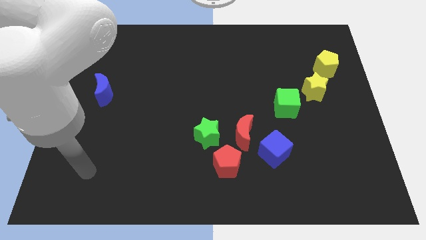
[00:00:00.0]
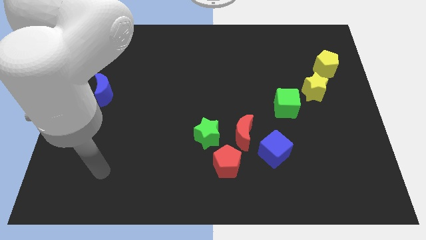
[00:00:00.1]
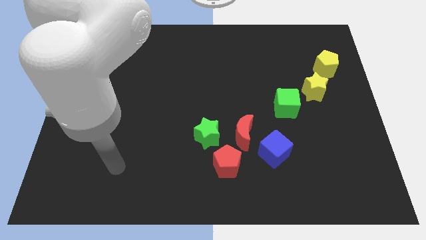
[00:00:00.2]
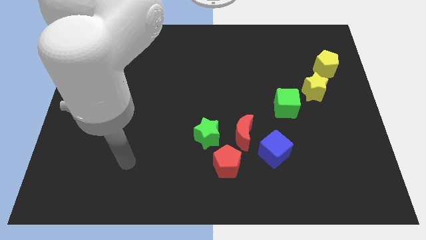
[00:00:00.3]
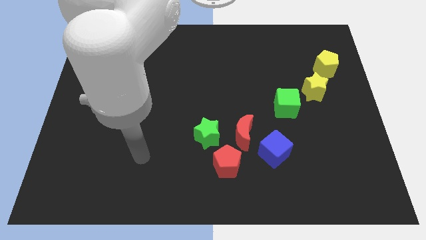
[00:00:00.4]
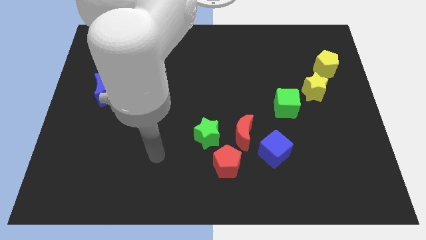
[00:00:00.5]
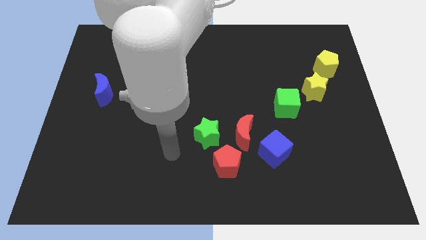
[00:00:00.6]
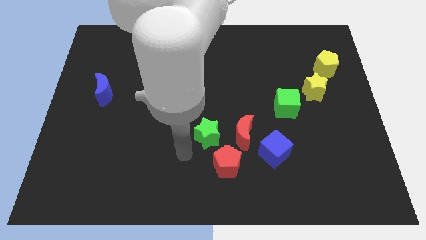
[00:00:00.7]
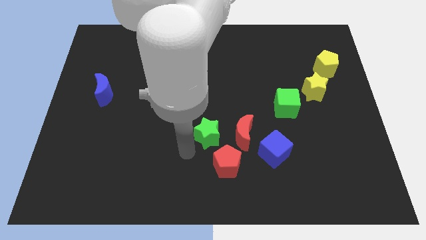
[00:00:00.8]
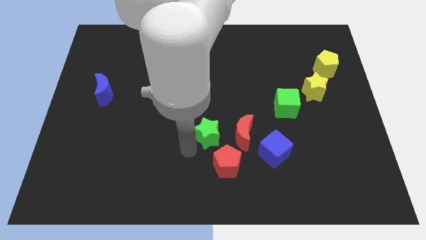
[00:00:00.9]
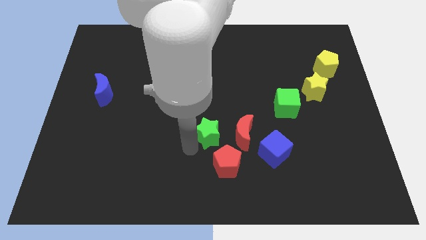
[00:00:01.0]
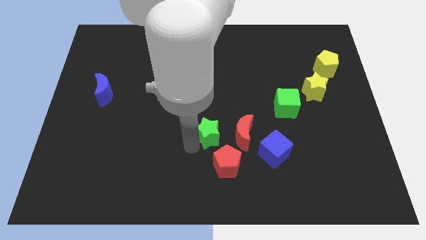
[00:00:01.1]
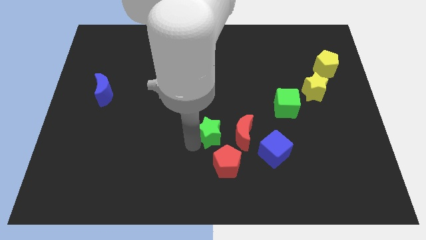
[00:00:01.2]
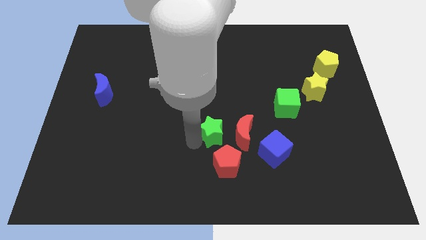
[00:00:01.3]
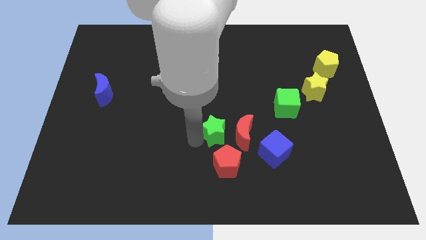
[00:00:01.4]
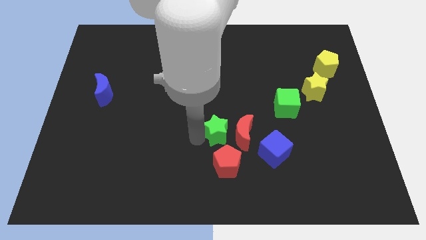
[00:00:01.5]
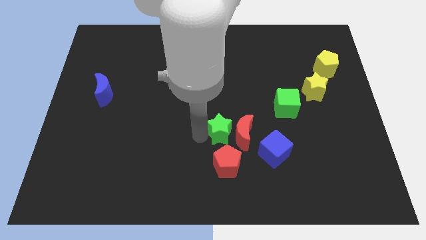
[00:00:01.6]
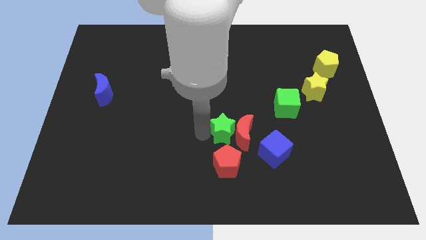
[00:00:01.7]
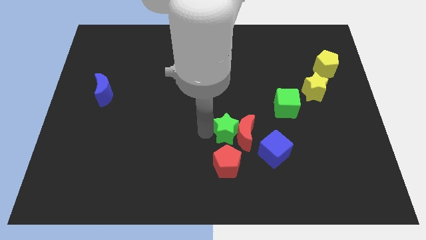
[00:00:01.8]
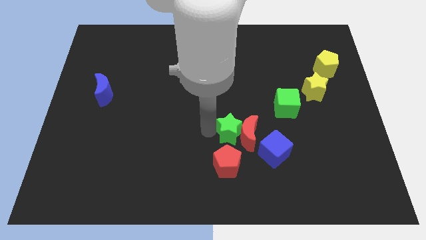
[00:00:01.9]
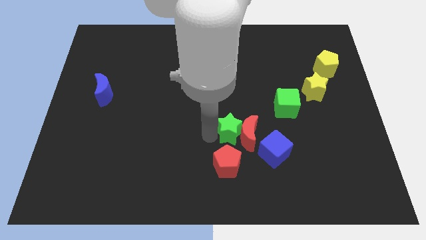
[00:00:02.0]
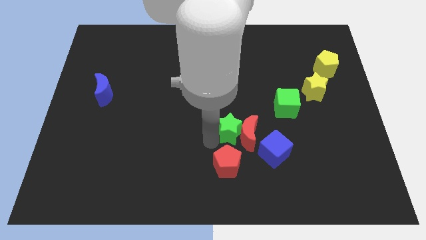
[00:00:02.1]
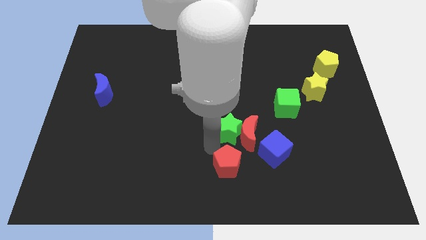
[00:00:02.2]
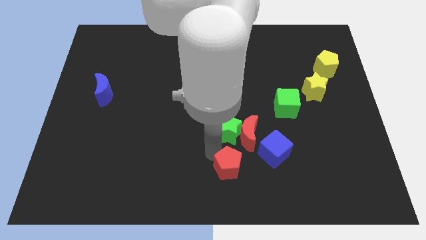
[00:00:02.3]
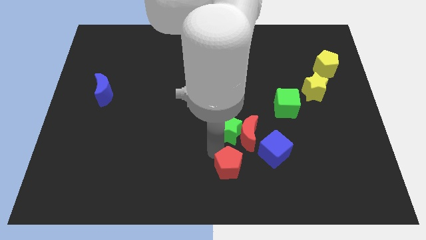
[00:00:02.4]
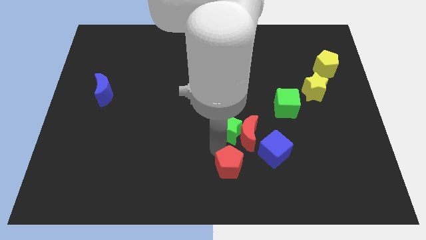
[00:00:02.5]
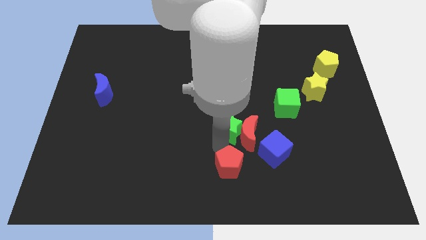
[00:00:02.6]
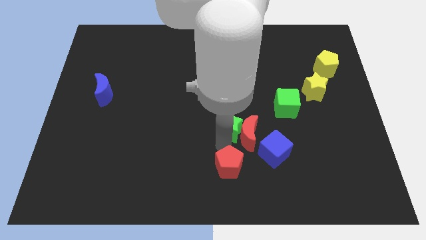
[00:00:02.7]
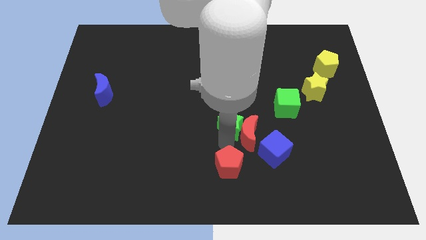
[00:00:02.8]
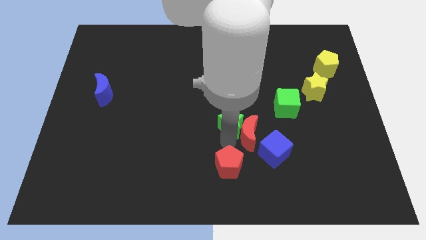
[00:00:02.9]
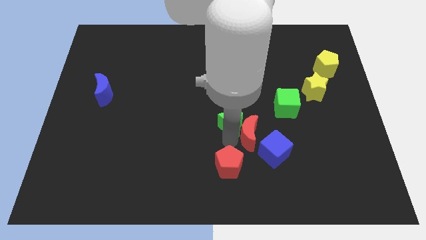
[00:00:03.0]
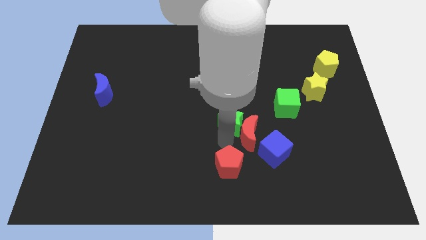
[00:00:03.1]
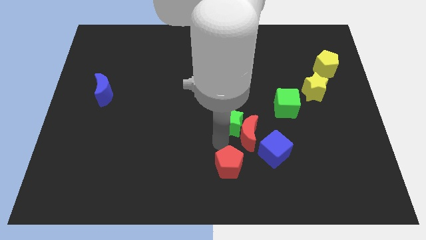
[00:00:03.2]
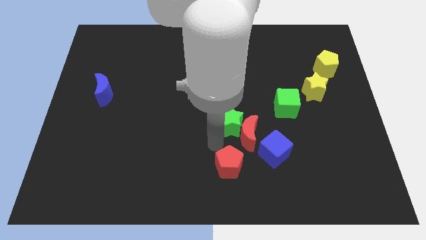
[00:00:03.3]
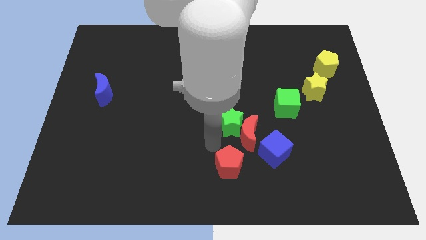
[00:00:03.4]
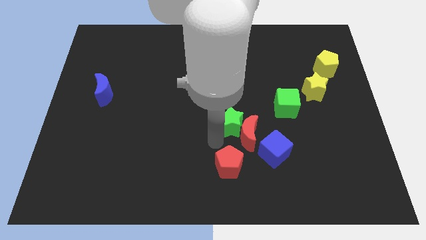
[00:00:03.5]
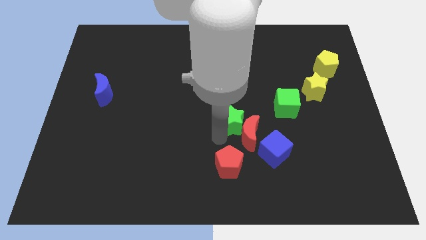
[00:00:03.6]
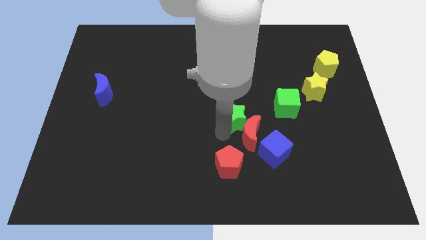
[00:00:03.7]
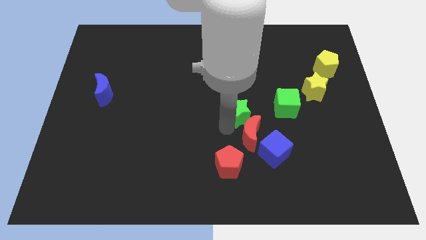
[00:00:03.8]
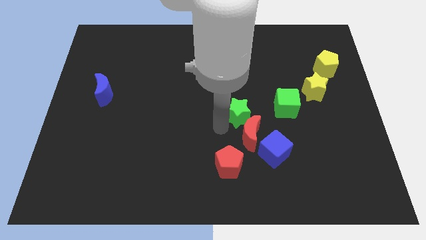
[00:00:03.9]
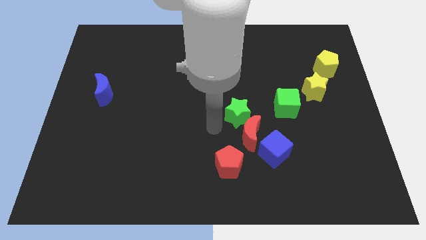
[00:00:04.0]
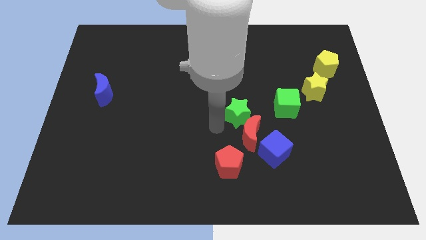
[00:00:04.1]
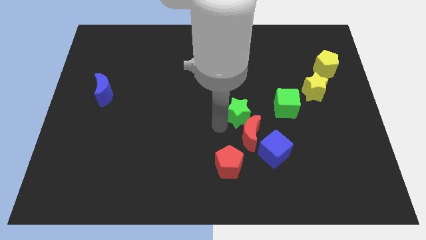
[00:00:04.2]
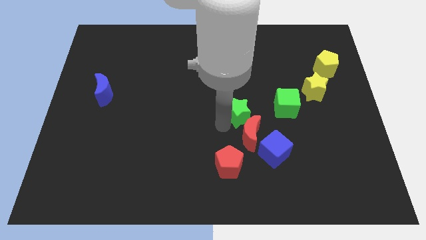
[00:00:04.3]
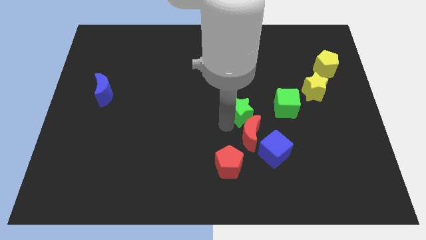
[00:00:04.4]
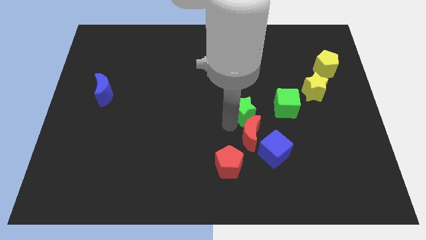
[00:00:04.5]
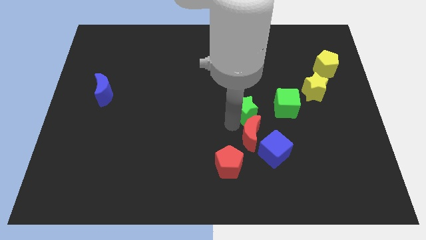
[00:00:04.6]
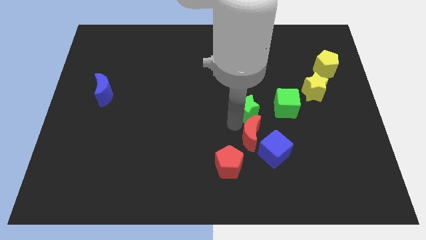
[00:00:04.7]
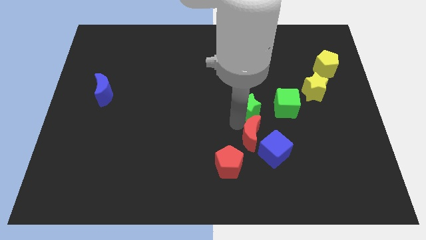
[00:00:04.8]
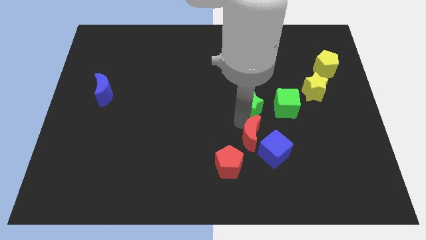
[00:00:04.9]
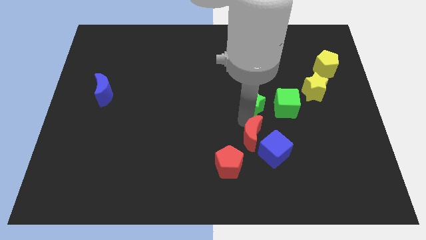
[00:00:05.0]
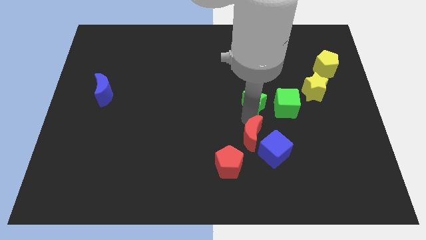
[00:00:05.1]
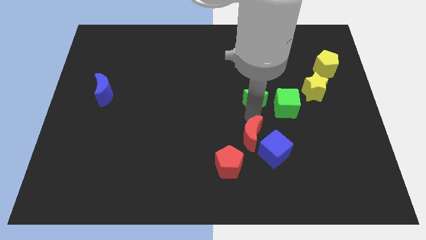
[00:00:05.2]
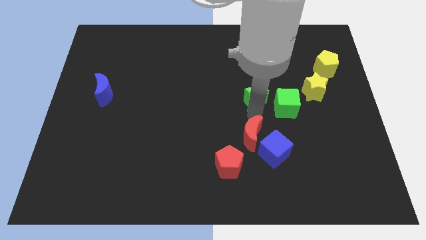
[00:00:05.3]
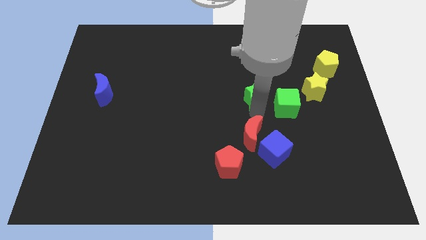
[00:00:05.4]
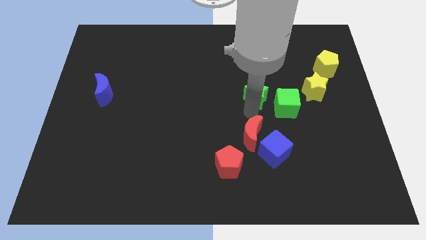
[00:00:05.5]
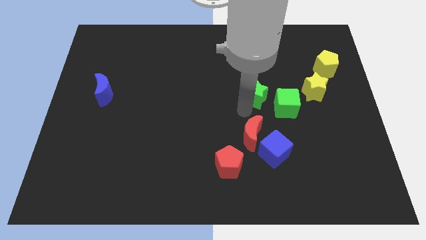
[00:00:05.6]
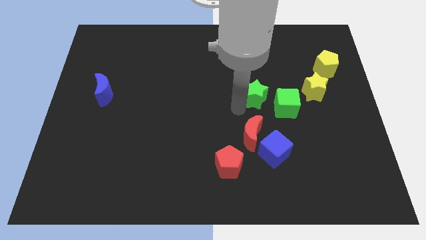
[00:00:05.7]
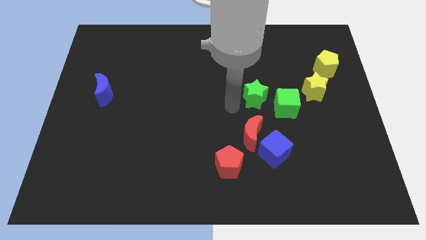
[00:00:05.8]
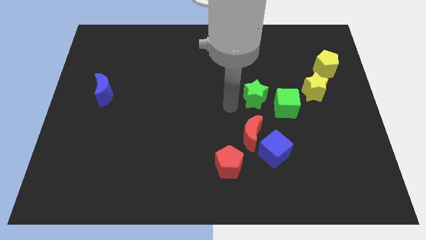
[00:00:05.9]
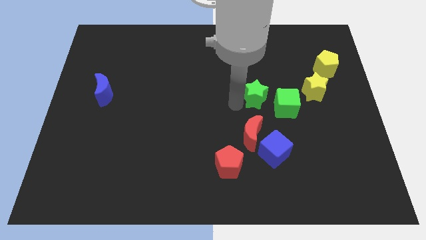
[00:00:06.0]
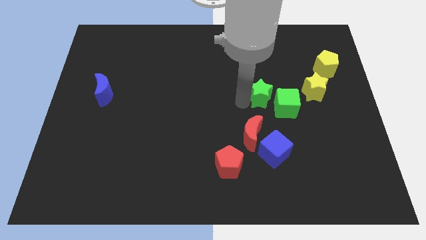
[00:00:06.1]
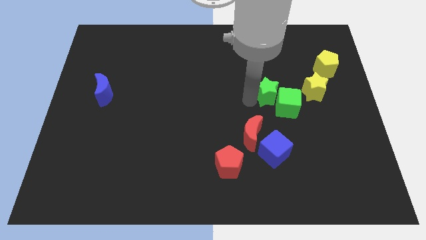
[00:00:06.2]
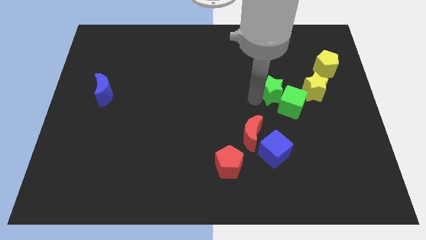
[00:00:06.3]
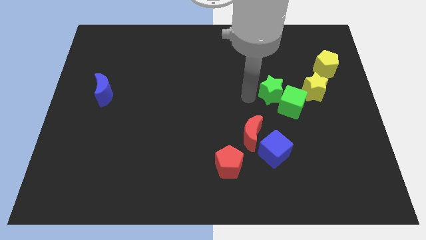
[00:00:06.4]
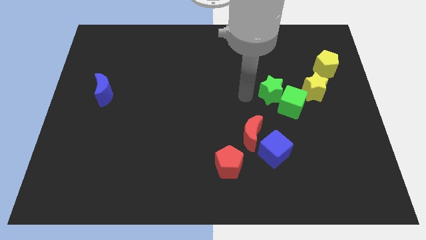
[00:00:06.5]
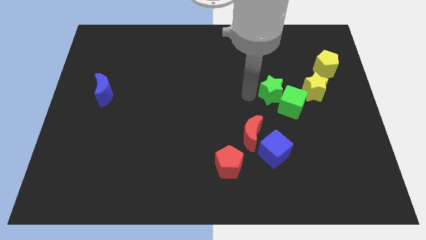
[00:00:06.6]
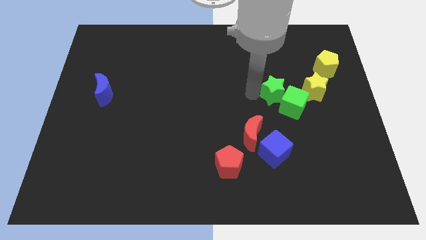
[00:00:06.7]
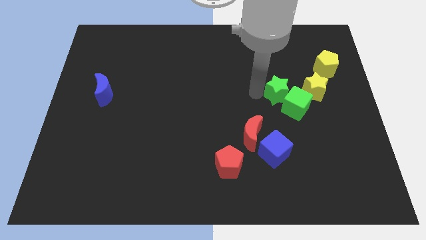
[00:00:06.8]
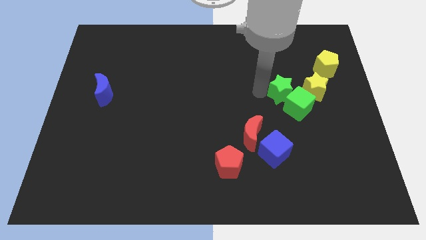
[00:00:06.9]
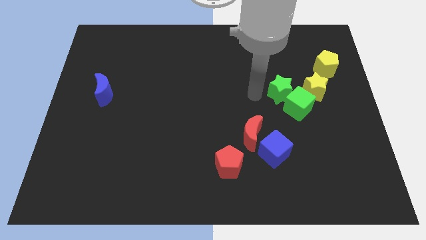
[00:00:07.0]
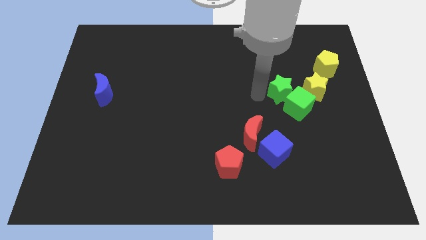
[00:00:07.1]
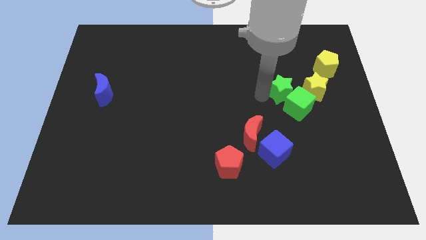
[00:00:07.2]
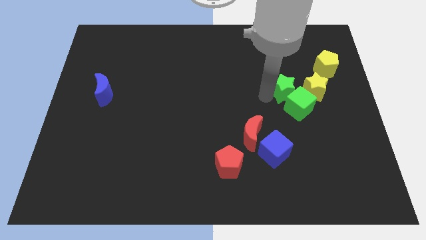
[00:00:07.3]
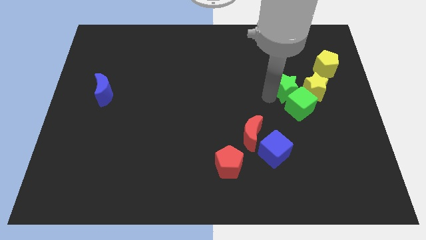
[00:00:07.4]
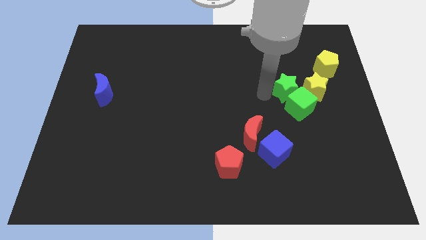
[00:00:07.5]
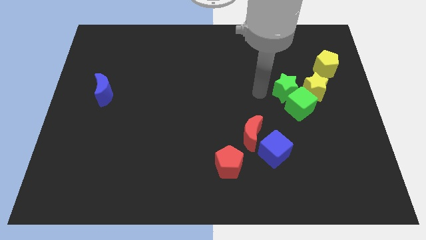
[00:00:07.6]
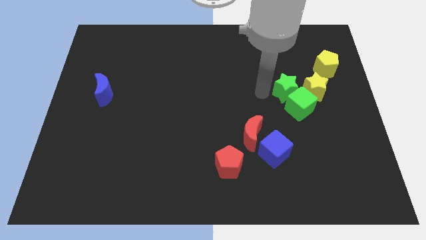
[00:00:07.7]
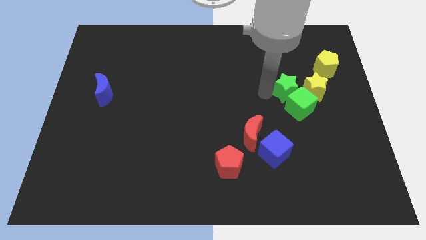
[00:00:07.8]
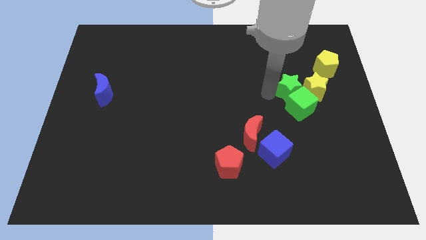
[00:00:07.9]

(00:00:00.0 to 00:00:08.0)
put the green star close to the yellow star
